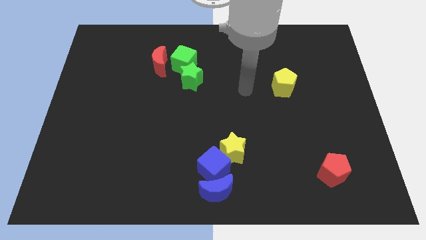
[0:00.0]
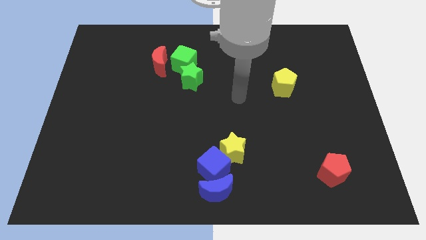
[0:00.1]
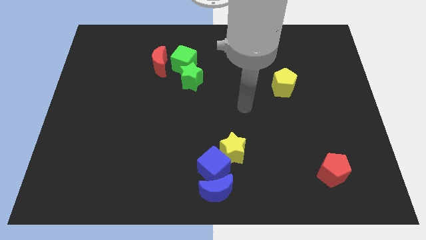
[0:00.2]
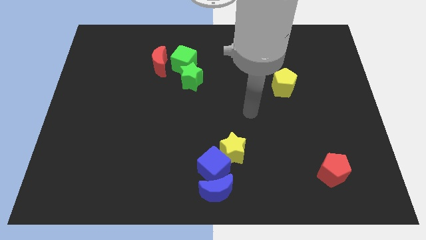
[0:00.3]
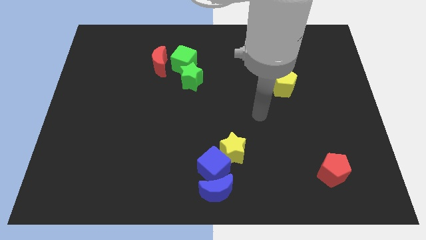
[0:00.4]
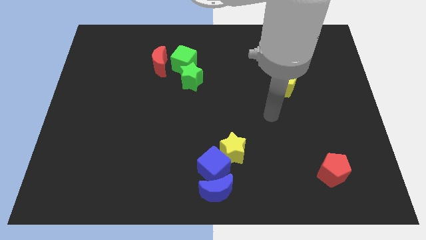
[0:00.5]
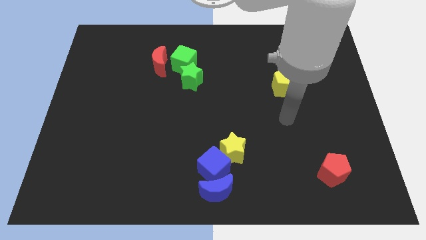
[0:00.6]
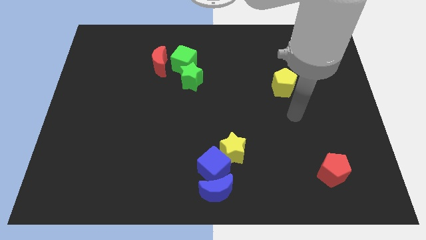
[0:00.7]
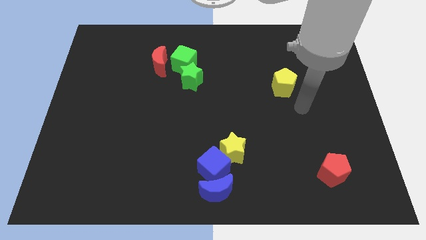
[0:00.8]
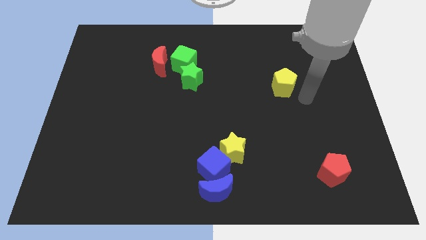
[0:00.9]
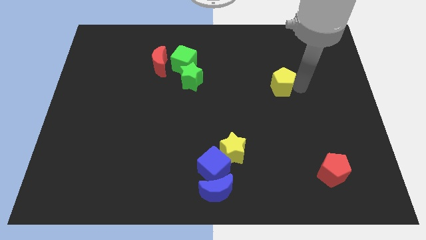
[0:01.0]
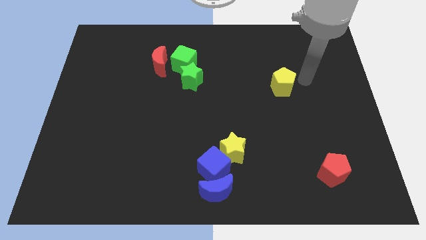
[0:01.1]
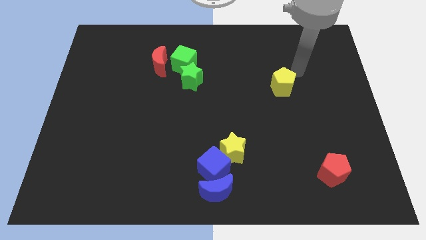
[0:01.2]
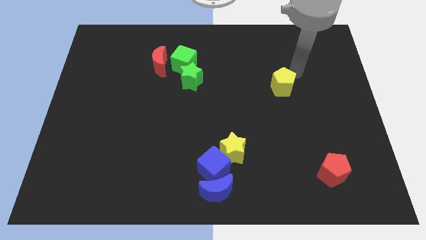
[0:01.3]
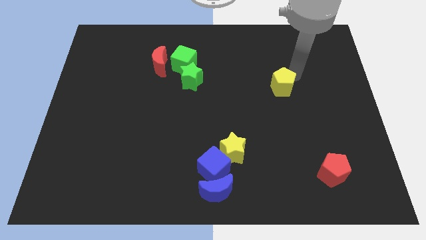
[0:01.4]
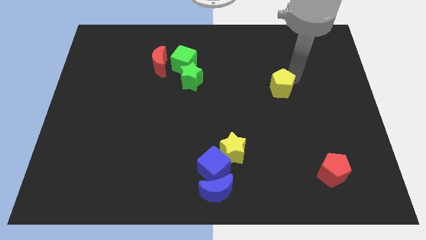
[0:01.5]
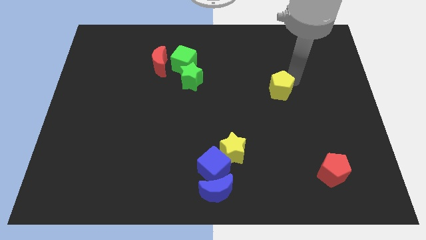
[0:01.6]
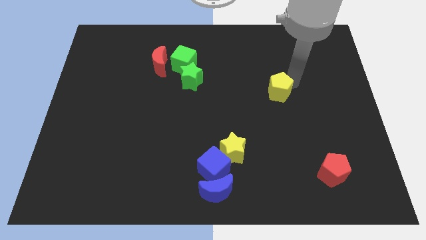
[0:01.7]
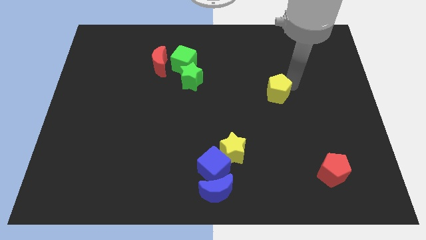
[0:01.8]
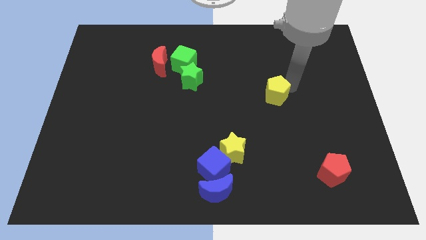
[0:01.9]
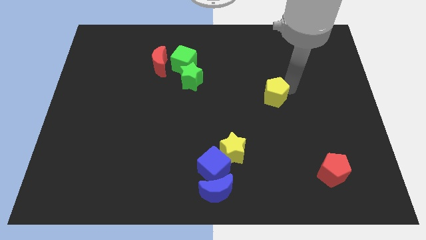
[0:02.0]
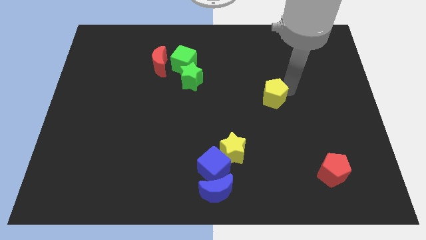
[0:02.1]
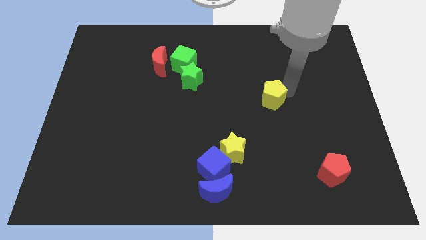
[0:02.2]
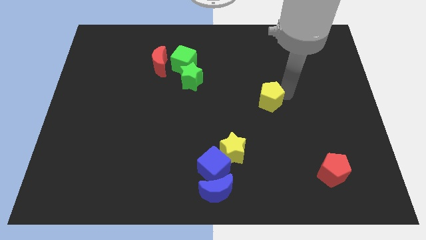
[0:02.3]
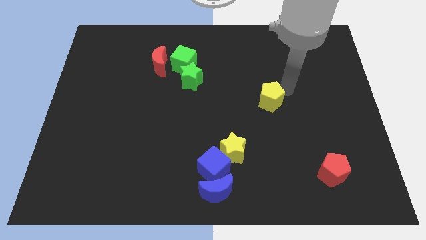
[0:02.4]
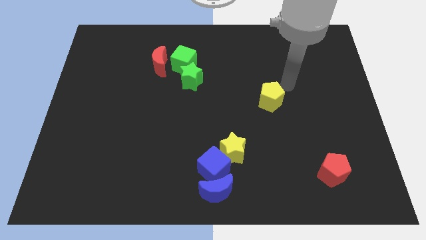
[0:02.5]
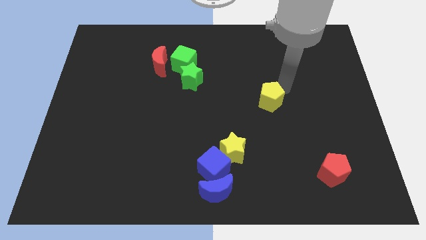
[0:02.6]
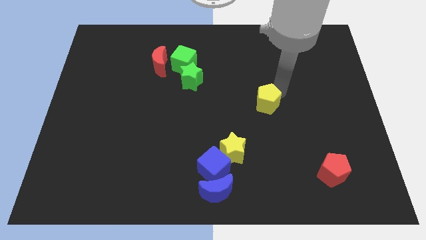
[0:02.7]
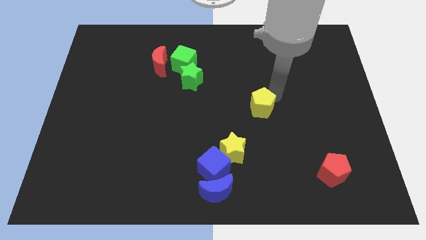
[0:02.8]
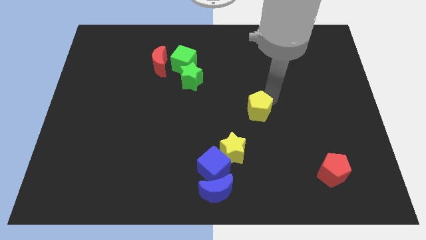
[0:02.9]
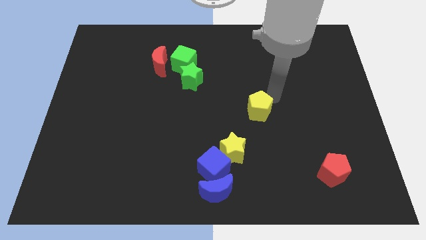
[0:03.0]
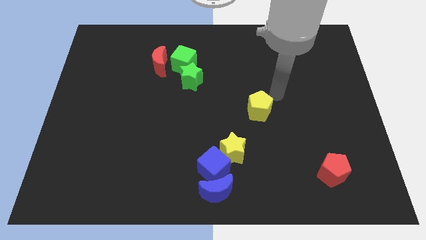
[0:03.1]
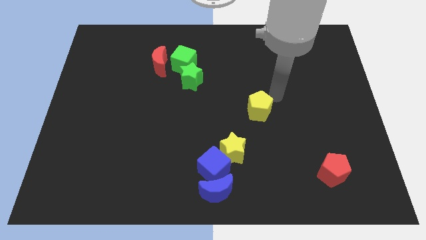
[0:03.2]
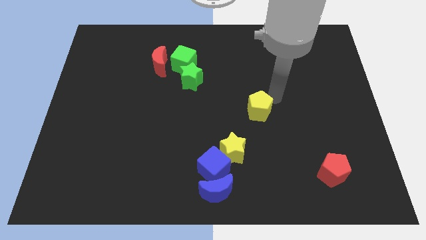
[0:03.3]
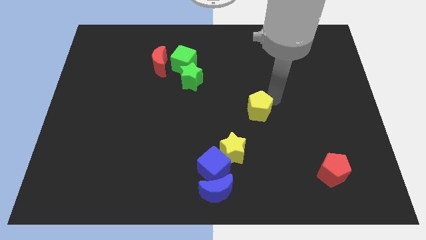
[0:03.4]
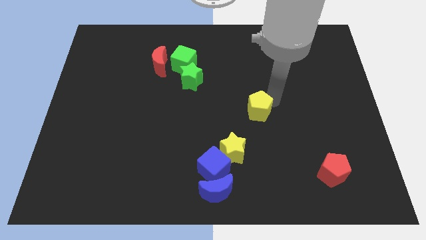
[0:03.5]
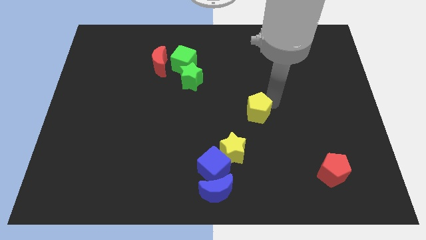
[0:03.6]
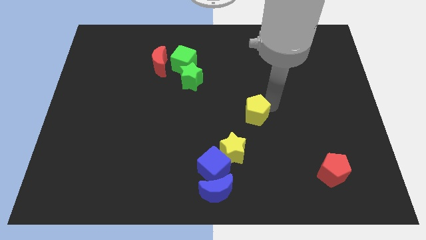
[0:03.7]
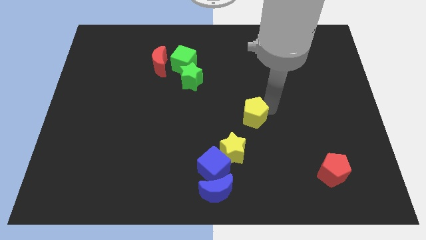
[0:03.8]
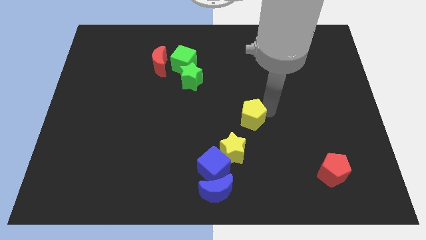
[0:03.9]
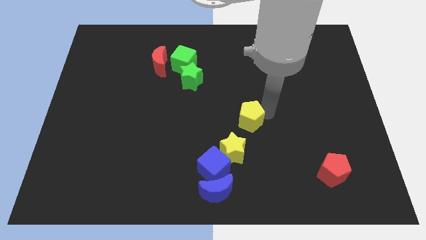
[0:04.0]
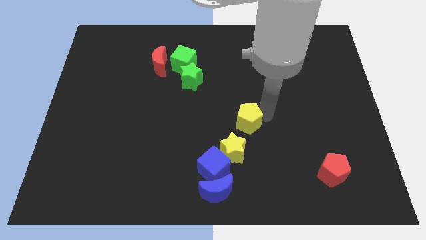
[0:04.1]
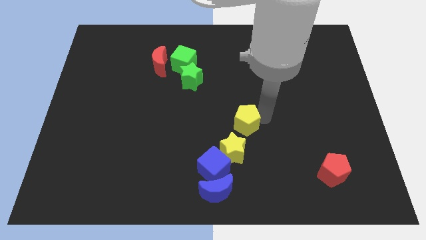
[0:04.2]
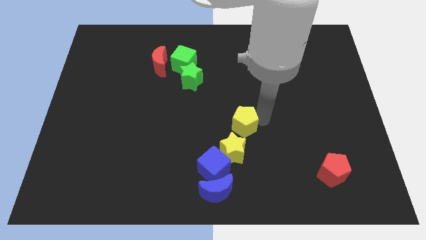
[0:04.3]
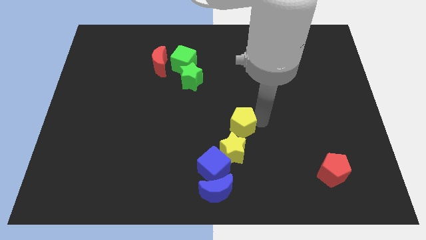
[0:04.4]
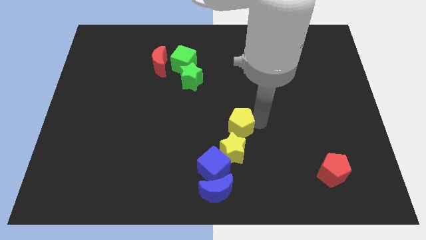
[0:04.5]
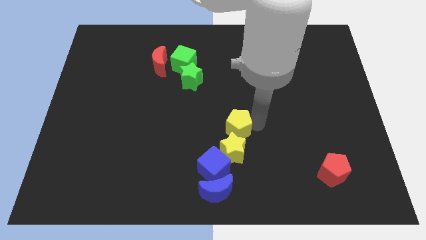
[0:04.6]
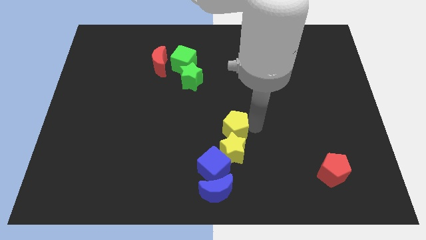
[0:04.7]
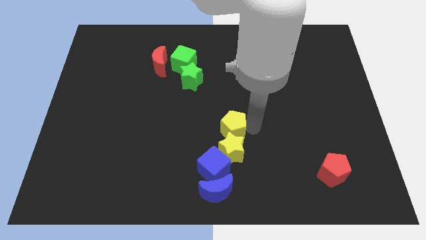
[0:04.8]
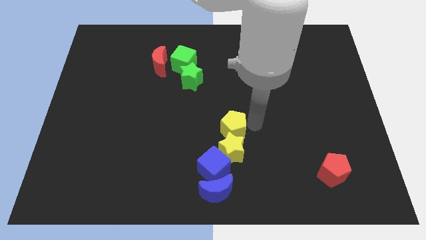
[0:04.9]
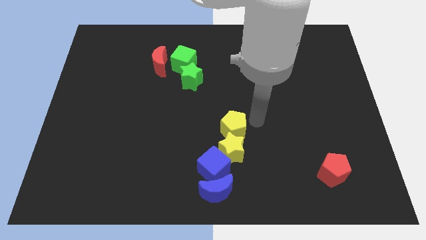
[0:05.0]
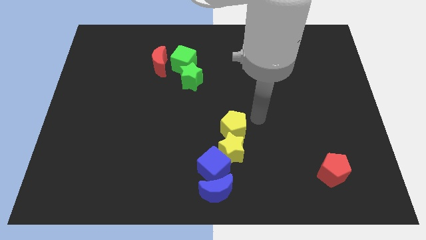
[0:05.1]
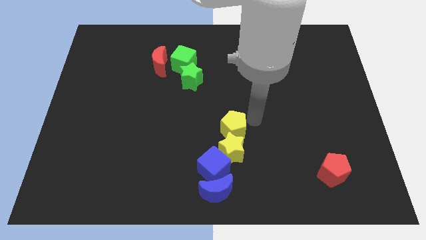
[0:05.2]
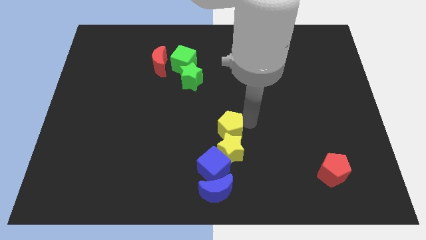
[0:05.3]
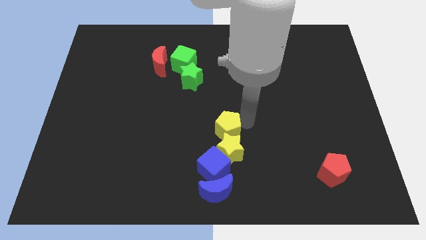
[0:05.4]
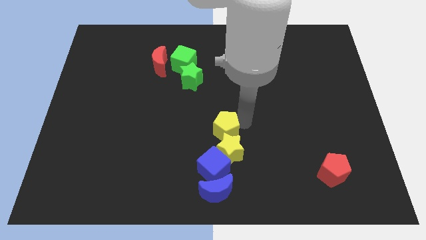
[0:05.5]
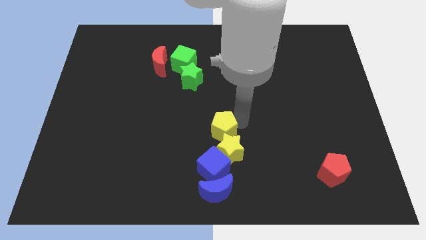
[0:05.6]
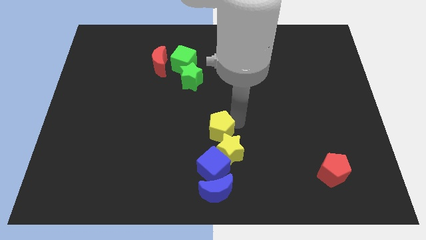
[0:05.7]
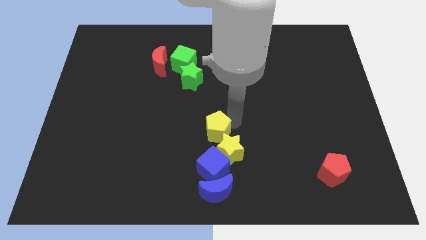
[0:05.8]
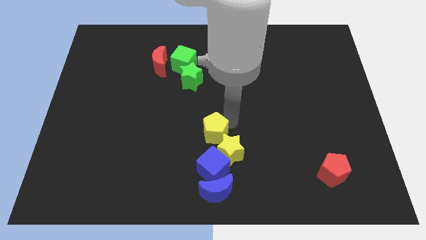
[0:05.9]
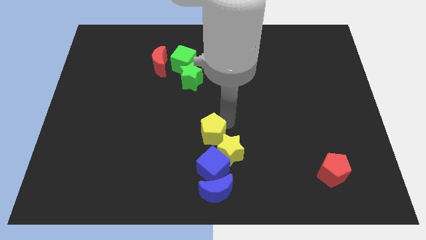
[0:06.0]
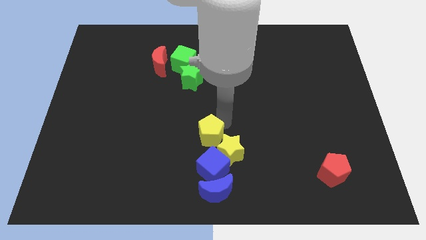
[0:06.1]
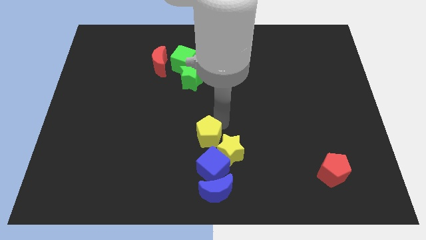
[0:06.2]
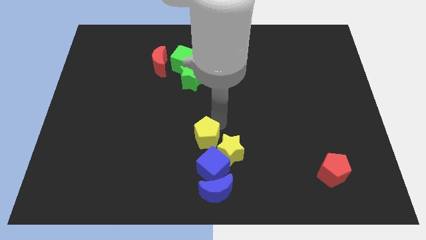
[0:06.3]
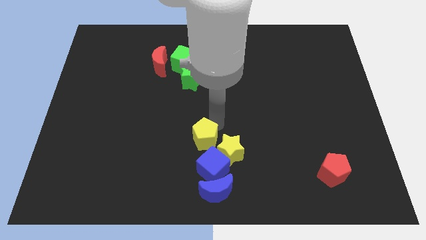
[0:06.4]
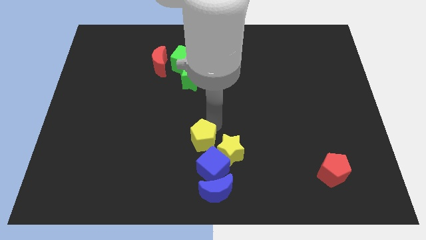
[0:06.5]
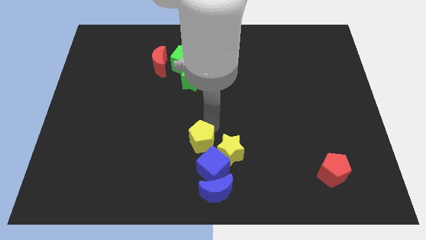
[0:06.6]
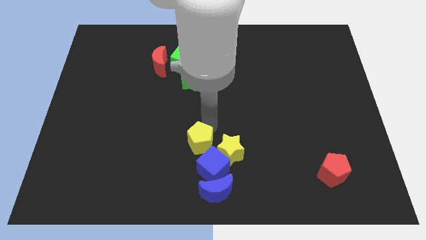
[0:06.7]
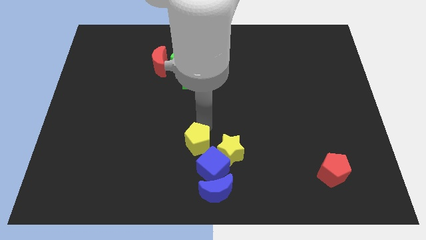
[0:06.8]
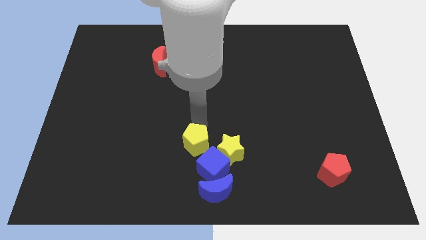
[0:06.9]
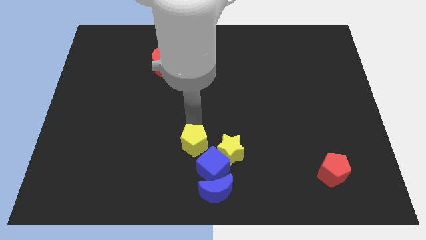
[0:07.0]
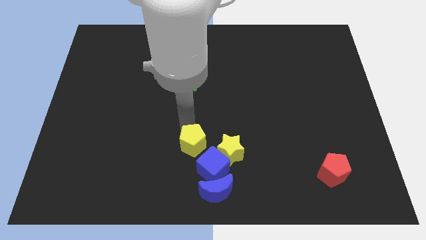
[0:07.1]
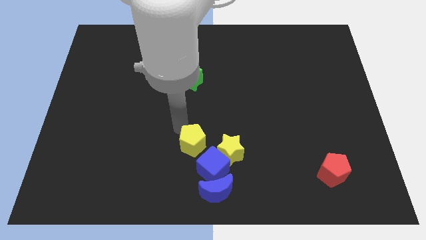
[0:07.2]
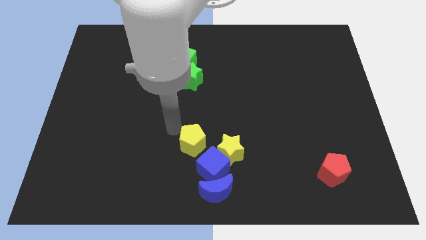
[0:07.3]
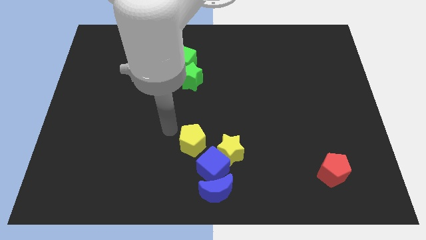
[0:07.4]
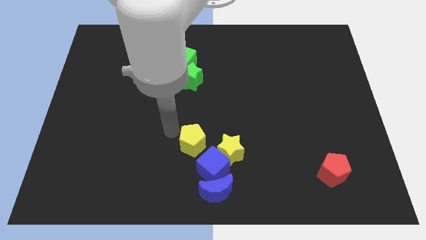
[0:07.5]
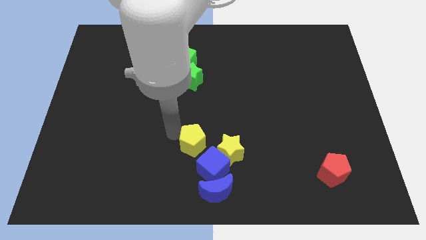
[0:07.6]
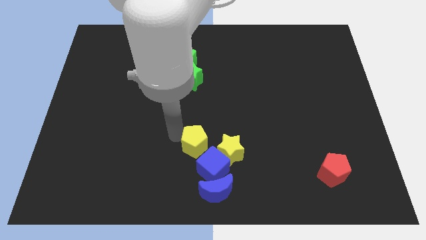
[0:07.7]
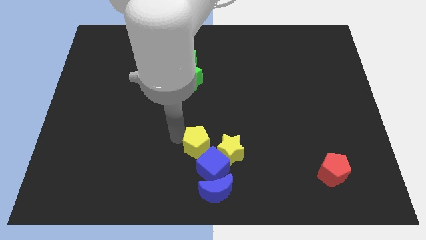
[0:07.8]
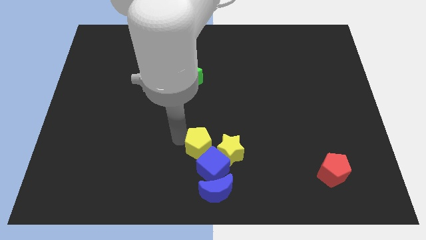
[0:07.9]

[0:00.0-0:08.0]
move the yellow pentagon close to the blue cube
